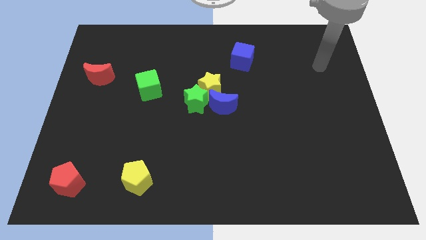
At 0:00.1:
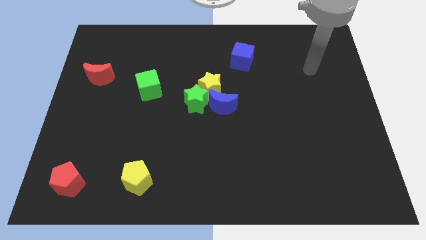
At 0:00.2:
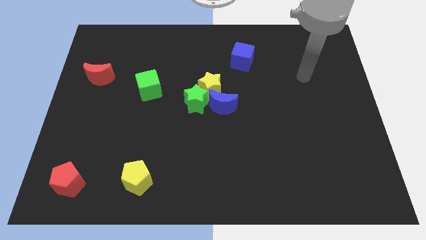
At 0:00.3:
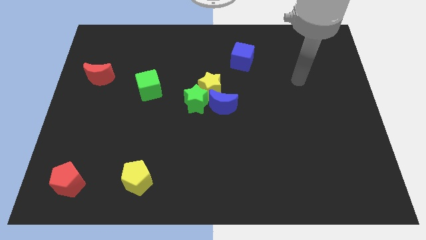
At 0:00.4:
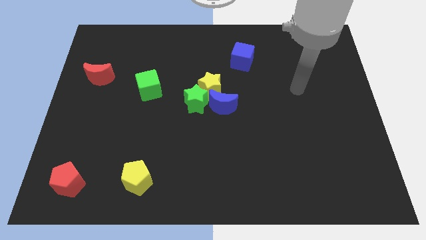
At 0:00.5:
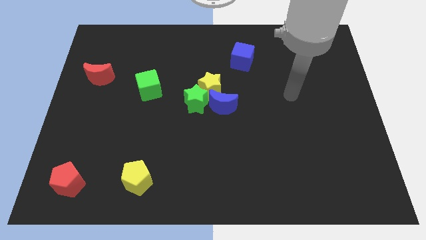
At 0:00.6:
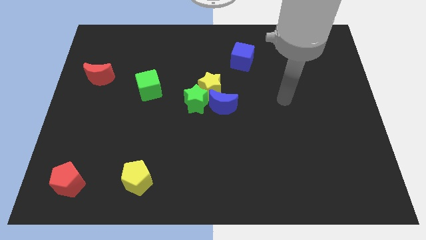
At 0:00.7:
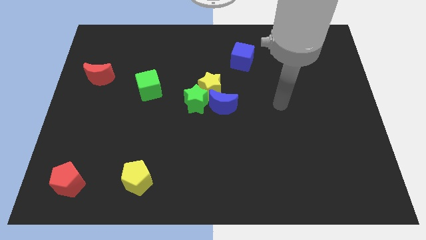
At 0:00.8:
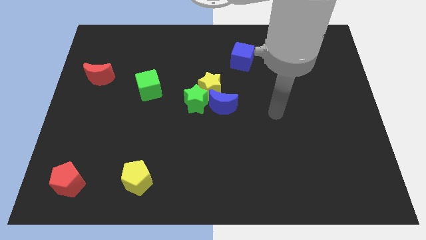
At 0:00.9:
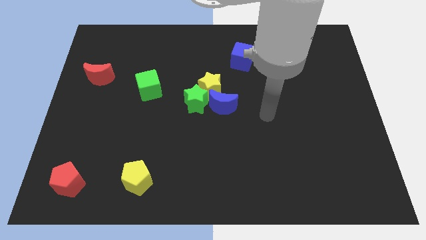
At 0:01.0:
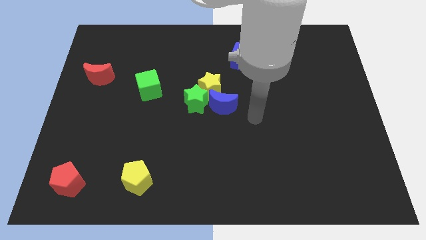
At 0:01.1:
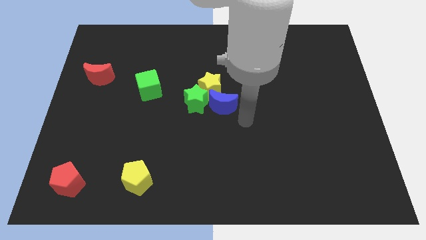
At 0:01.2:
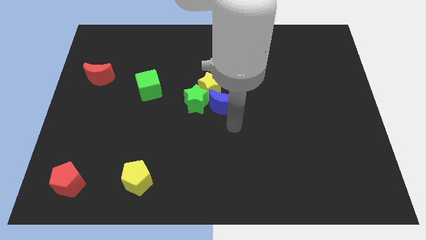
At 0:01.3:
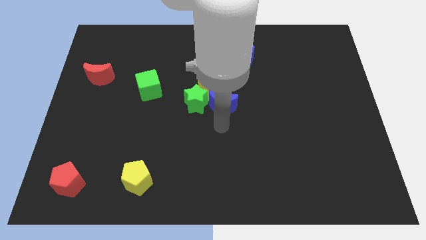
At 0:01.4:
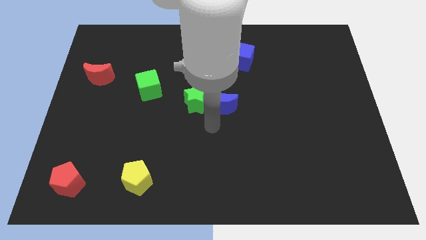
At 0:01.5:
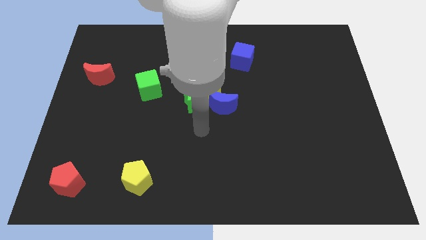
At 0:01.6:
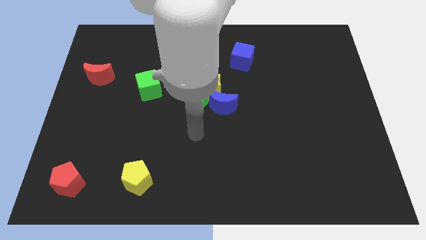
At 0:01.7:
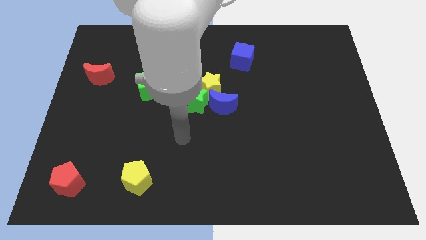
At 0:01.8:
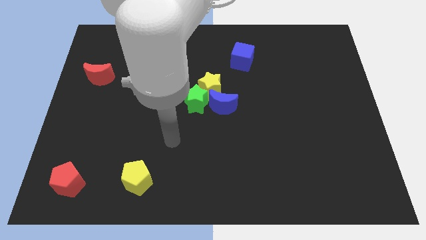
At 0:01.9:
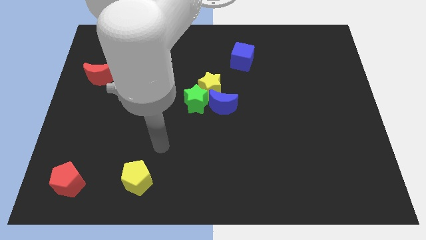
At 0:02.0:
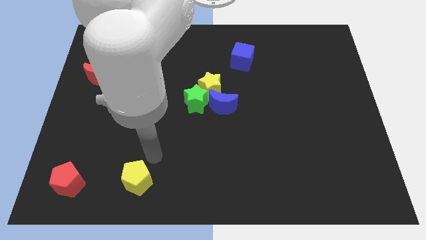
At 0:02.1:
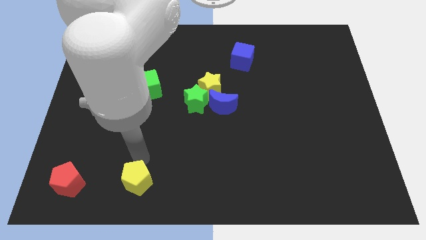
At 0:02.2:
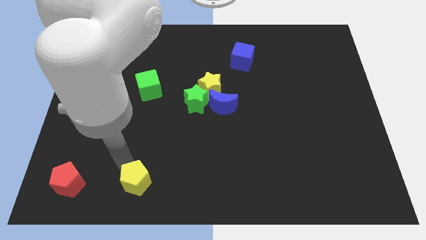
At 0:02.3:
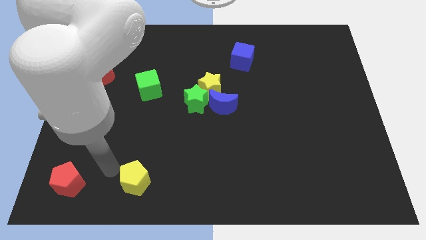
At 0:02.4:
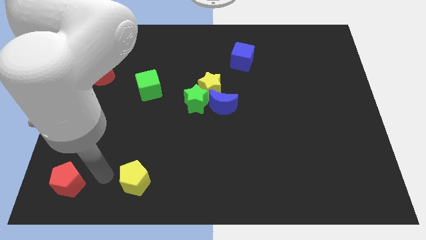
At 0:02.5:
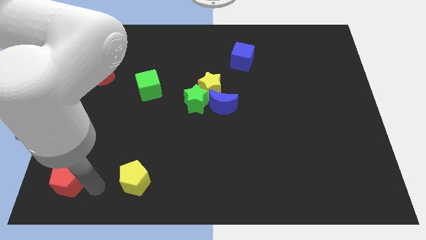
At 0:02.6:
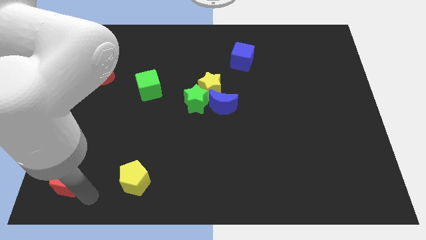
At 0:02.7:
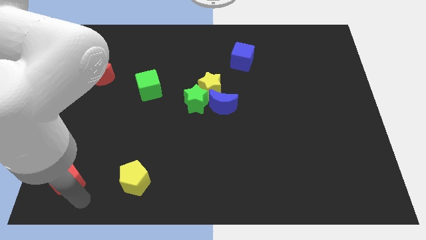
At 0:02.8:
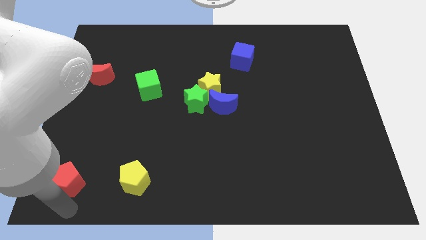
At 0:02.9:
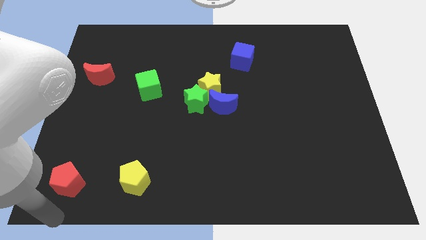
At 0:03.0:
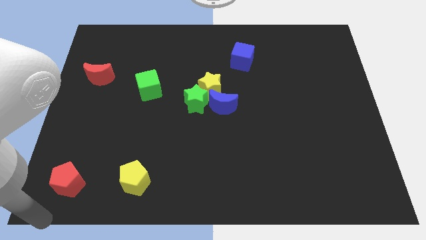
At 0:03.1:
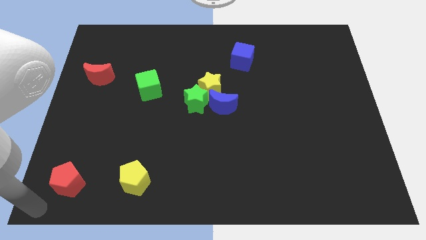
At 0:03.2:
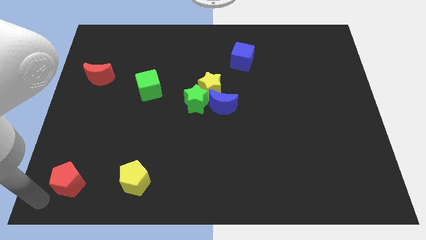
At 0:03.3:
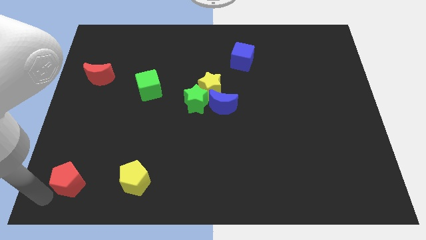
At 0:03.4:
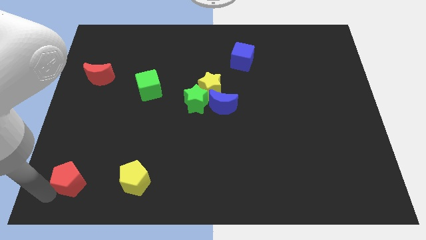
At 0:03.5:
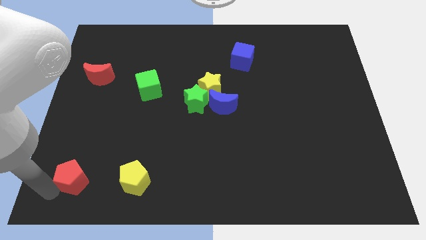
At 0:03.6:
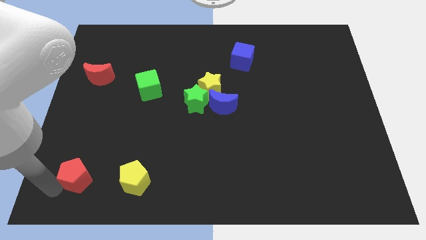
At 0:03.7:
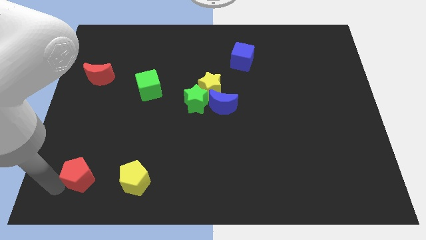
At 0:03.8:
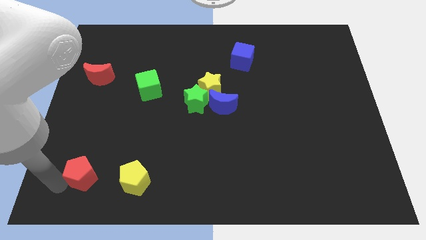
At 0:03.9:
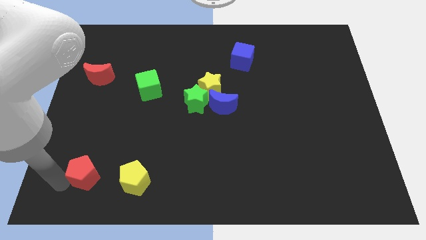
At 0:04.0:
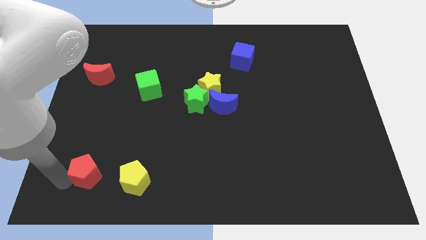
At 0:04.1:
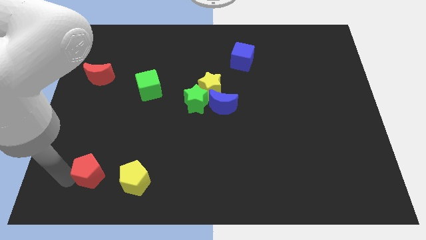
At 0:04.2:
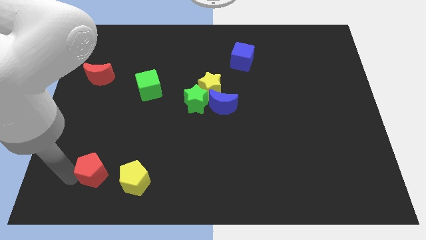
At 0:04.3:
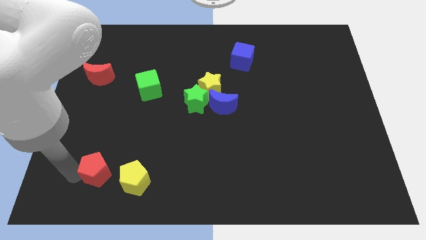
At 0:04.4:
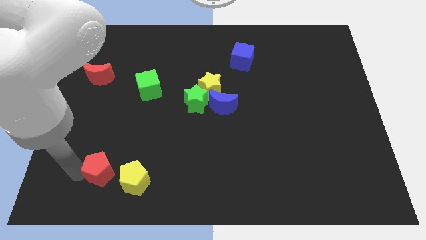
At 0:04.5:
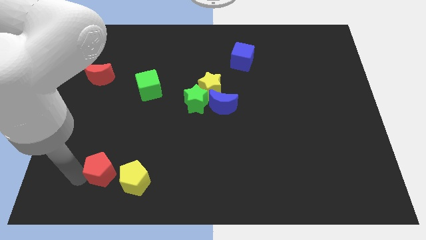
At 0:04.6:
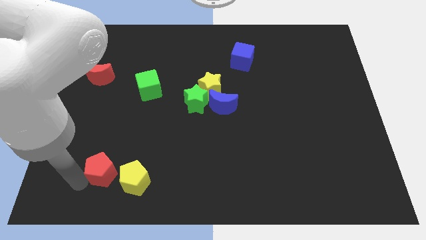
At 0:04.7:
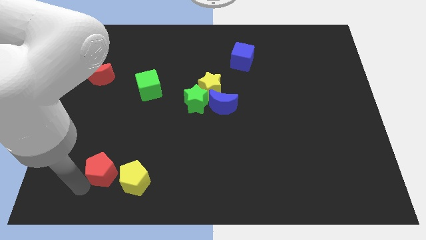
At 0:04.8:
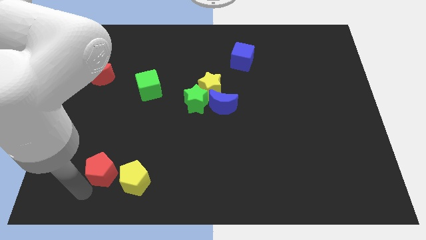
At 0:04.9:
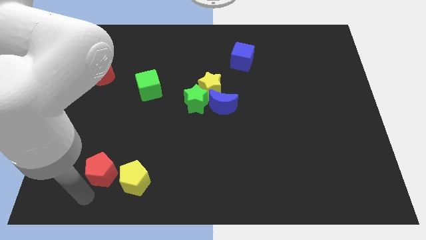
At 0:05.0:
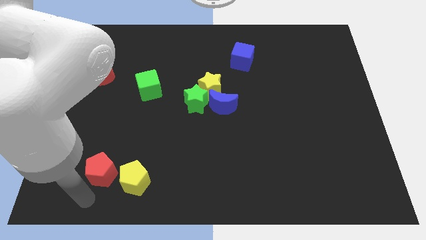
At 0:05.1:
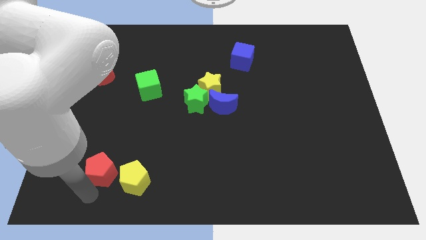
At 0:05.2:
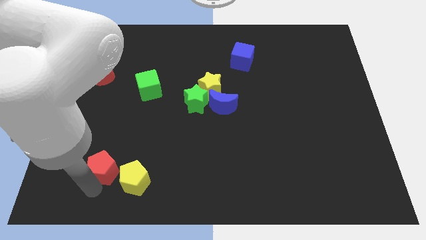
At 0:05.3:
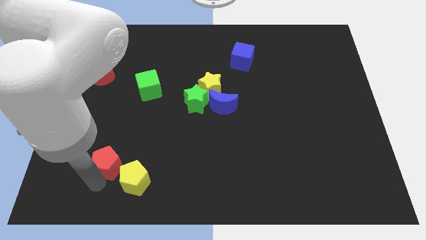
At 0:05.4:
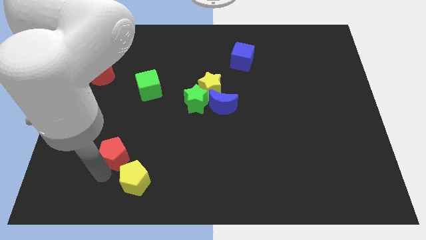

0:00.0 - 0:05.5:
move the red pentagon above the yellow pentagon

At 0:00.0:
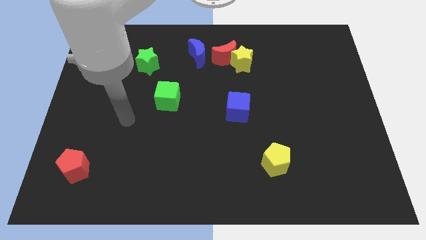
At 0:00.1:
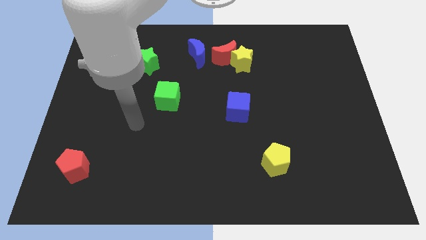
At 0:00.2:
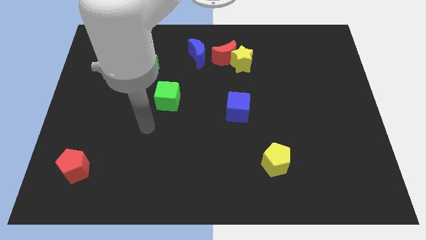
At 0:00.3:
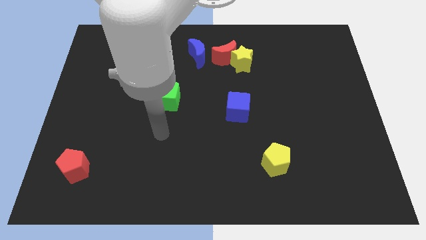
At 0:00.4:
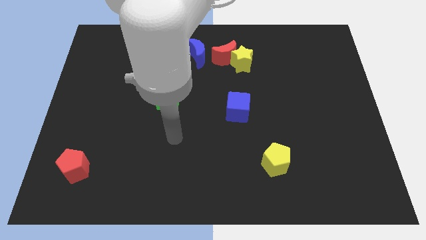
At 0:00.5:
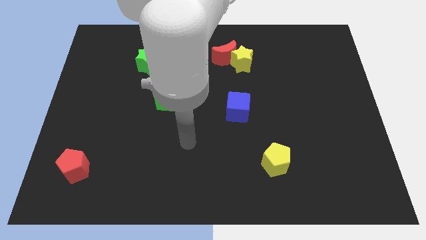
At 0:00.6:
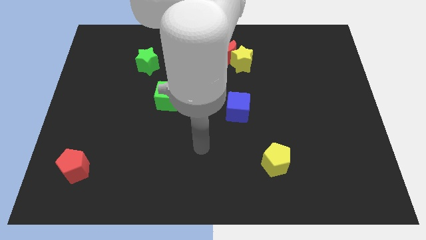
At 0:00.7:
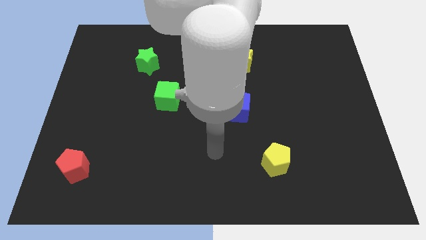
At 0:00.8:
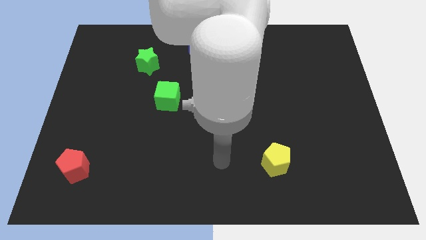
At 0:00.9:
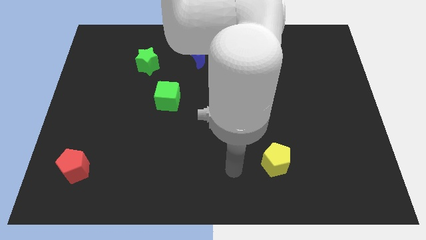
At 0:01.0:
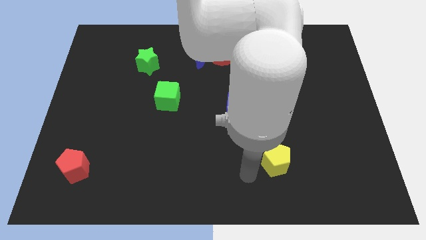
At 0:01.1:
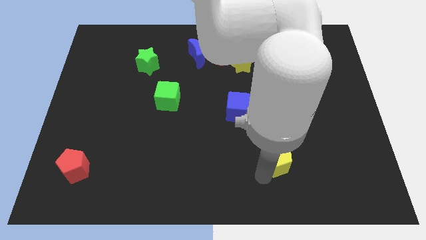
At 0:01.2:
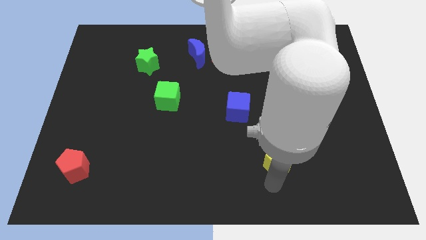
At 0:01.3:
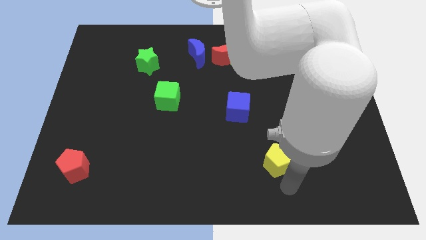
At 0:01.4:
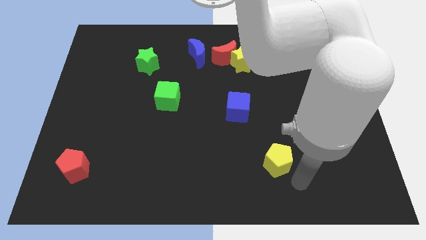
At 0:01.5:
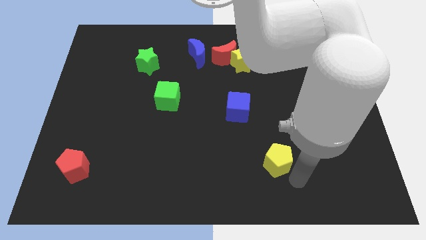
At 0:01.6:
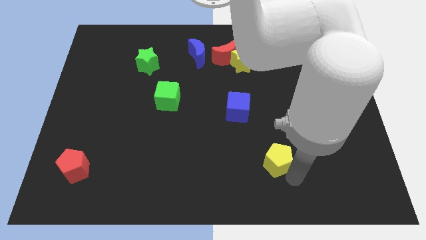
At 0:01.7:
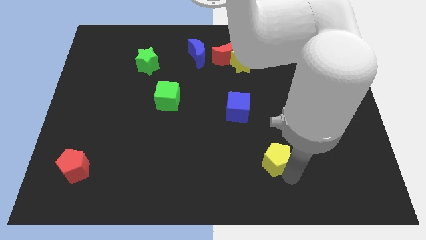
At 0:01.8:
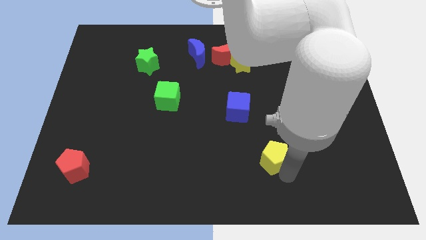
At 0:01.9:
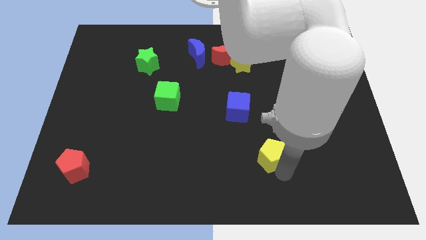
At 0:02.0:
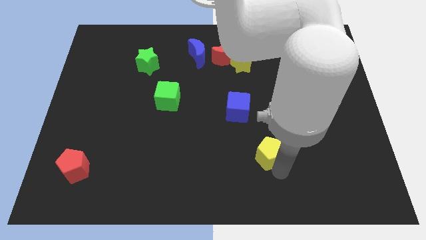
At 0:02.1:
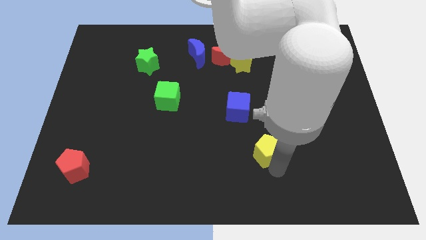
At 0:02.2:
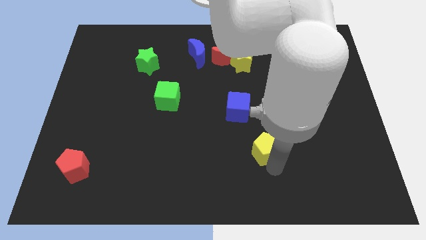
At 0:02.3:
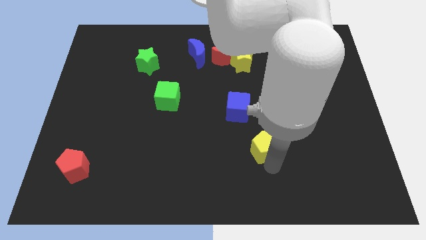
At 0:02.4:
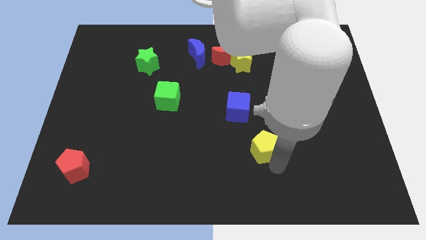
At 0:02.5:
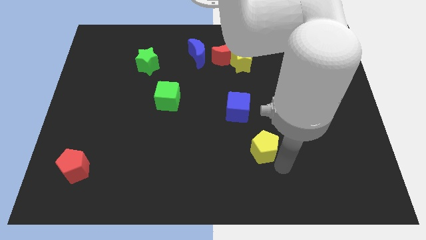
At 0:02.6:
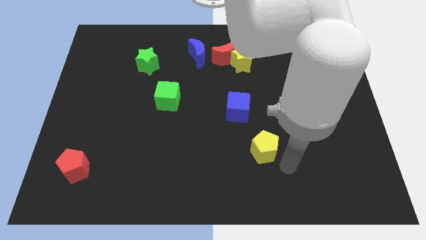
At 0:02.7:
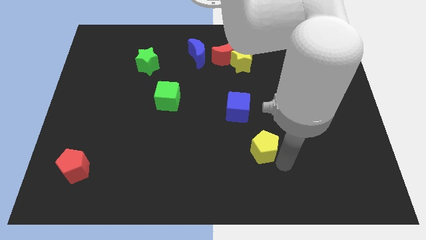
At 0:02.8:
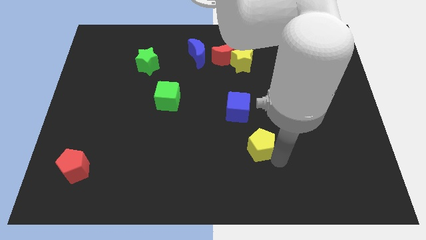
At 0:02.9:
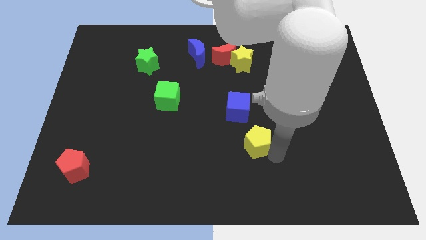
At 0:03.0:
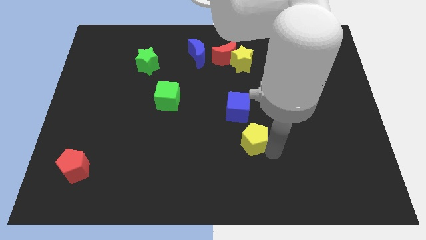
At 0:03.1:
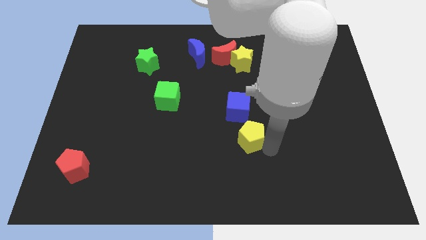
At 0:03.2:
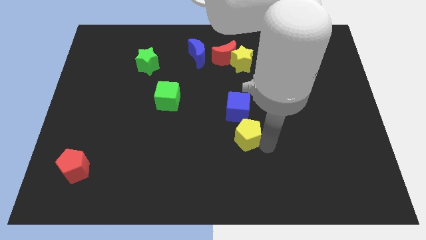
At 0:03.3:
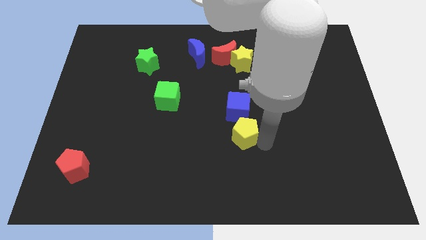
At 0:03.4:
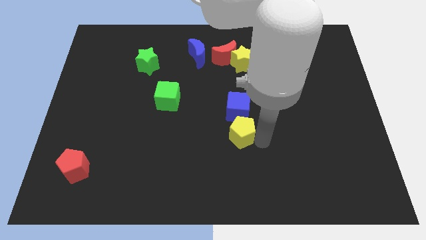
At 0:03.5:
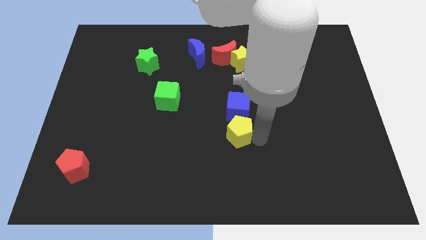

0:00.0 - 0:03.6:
put the yellow pentagon to the bottom left side of the blue cube
